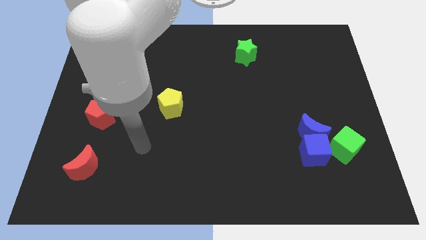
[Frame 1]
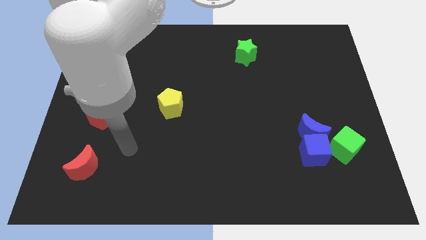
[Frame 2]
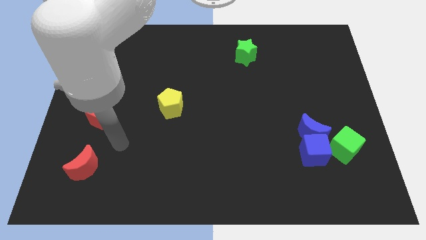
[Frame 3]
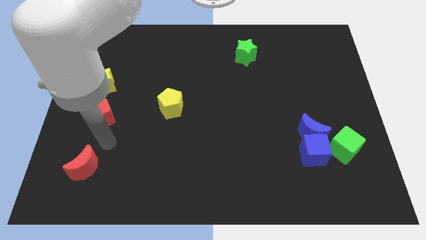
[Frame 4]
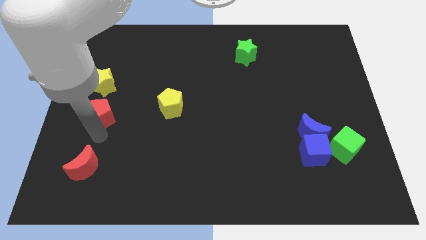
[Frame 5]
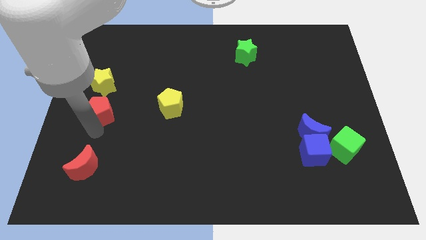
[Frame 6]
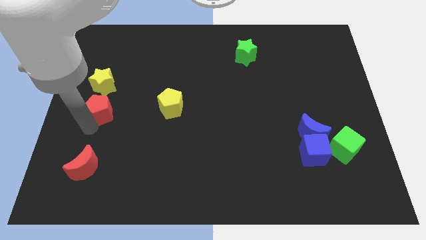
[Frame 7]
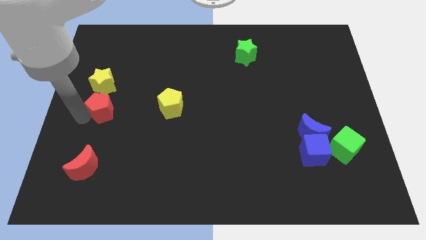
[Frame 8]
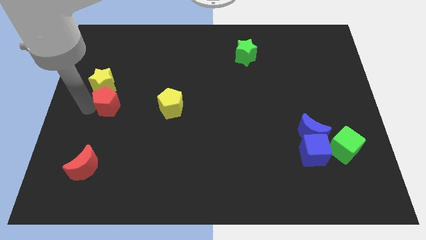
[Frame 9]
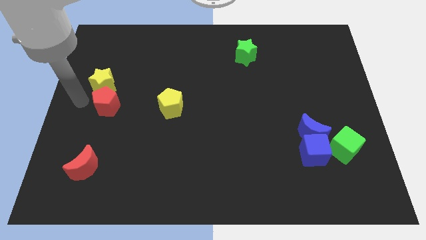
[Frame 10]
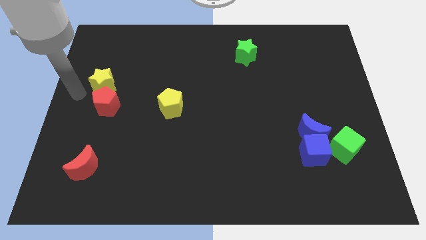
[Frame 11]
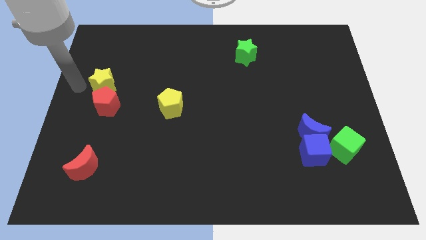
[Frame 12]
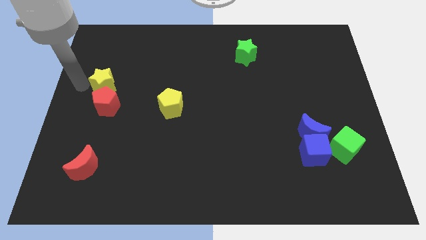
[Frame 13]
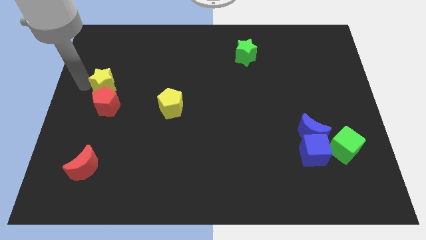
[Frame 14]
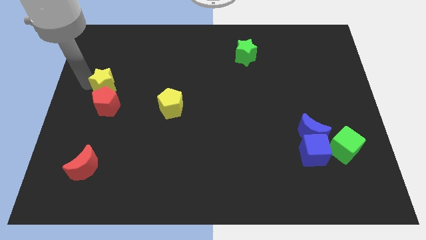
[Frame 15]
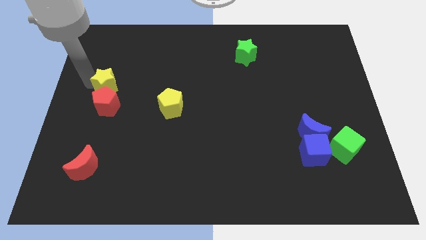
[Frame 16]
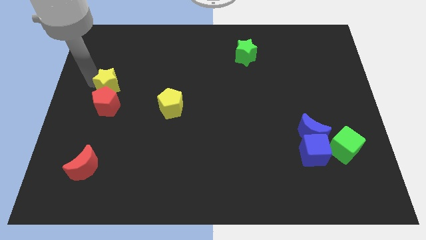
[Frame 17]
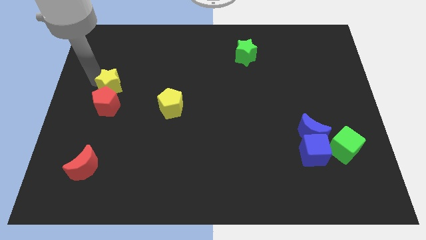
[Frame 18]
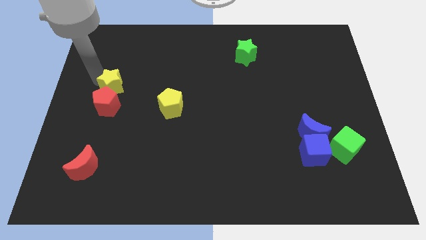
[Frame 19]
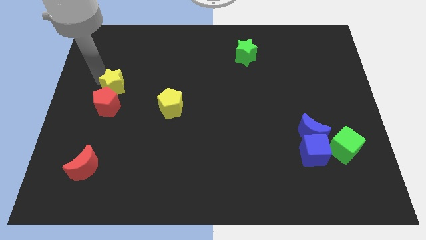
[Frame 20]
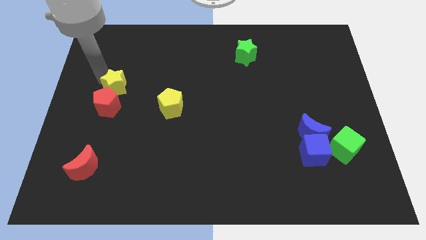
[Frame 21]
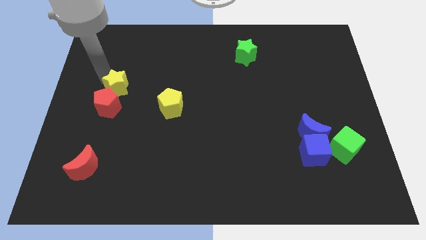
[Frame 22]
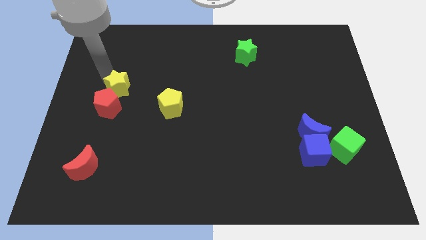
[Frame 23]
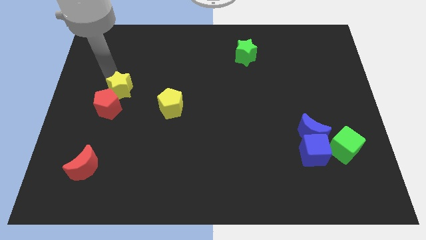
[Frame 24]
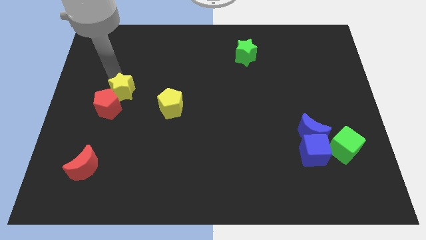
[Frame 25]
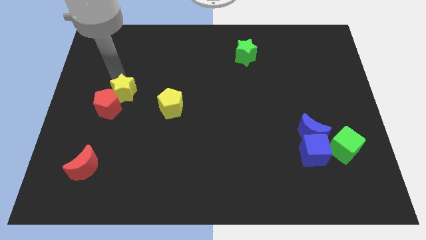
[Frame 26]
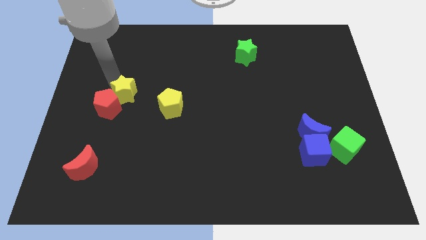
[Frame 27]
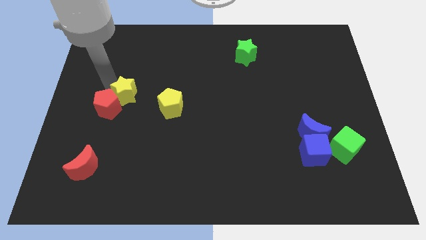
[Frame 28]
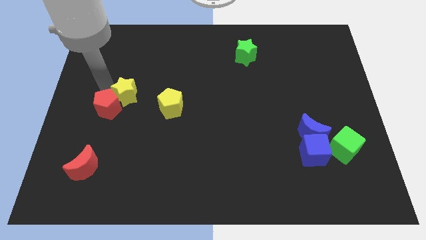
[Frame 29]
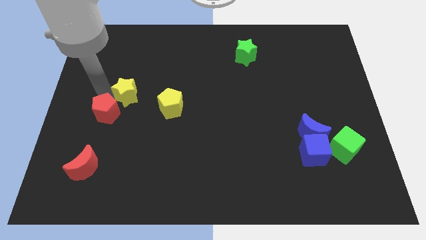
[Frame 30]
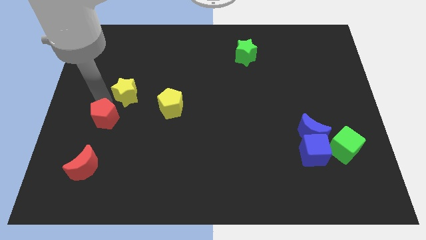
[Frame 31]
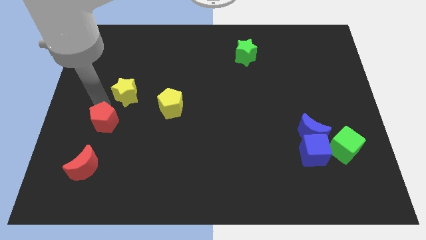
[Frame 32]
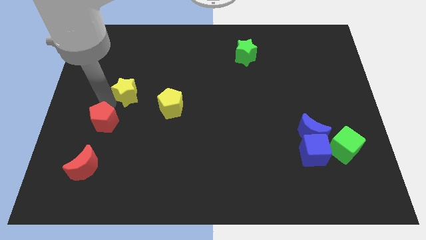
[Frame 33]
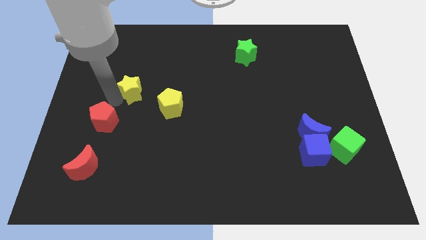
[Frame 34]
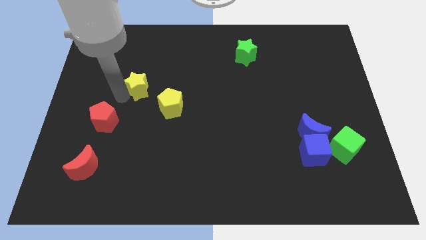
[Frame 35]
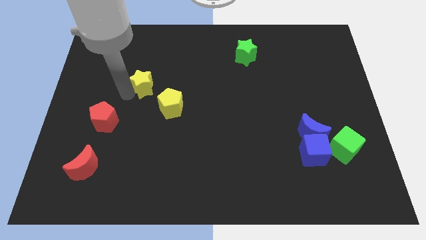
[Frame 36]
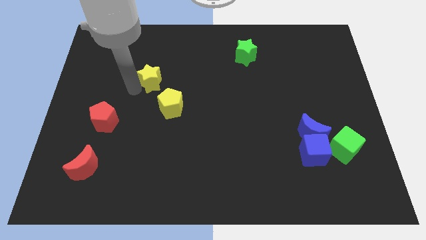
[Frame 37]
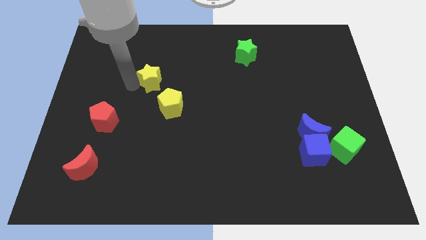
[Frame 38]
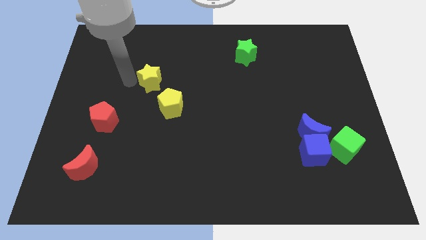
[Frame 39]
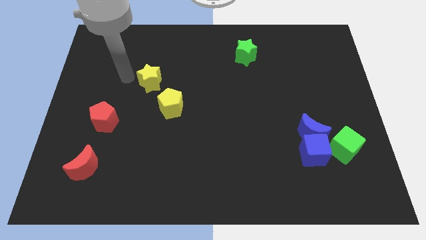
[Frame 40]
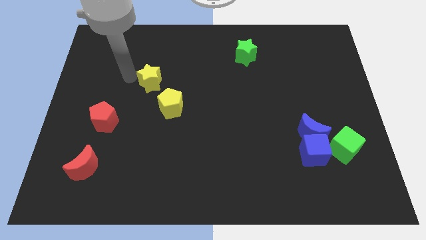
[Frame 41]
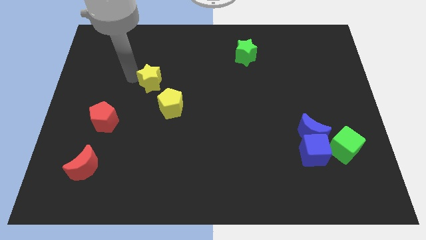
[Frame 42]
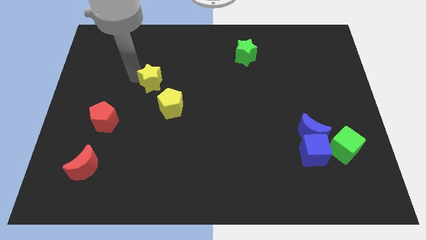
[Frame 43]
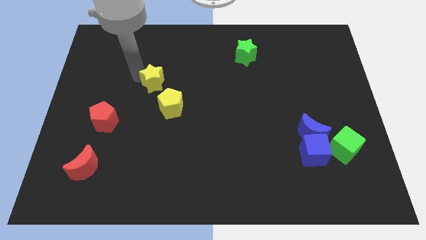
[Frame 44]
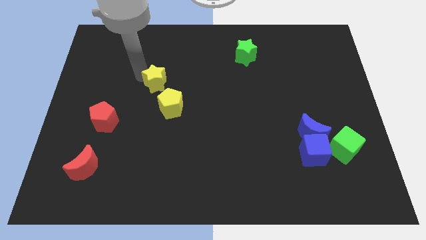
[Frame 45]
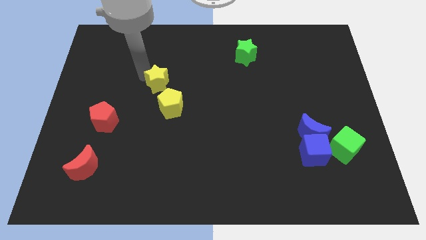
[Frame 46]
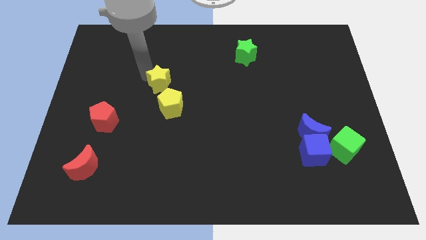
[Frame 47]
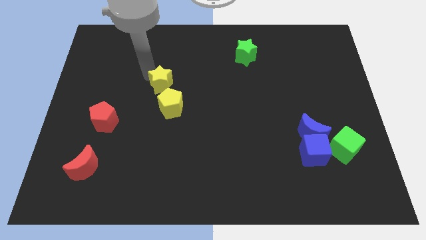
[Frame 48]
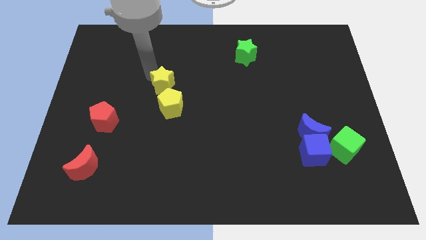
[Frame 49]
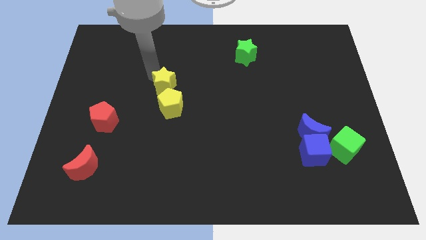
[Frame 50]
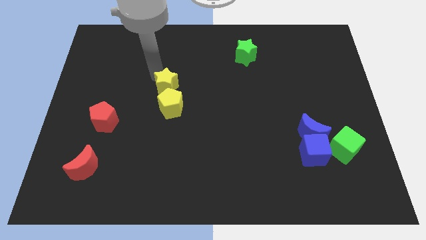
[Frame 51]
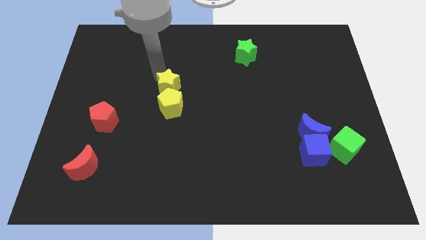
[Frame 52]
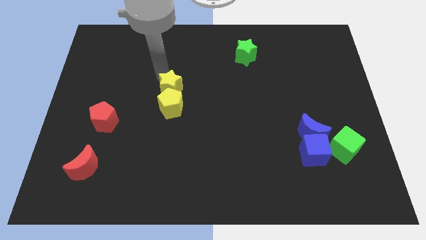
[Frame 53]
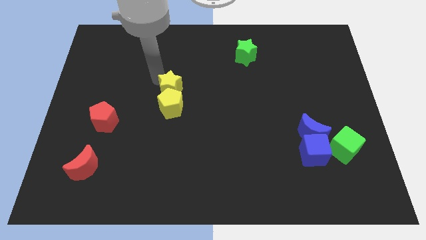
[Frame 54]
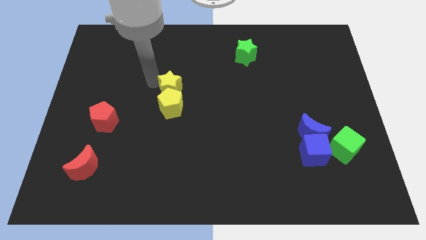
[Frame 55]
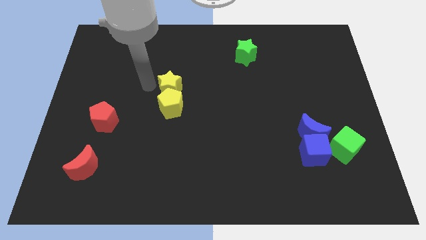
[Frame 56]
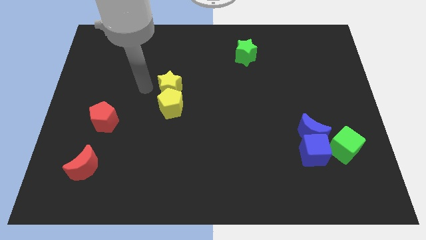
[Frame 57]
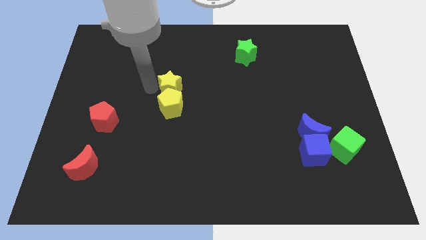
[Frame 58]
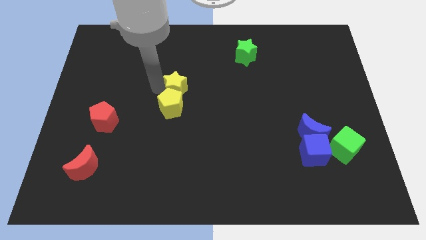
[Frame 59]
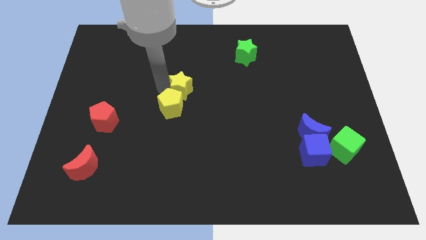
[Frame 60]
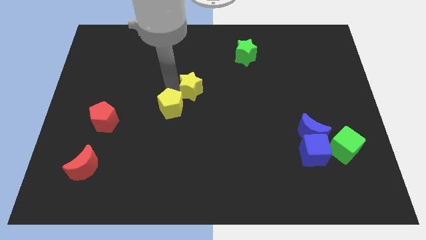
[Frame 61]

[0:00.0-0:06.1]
push the yellow star to the right

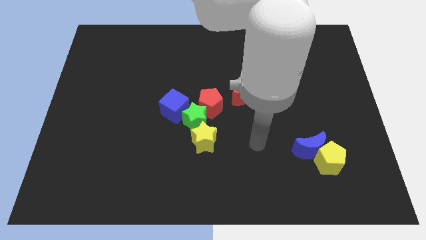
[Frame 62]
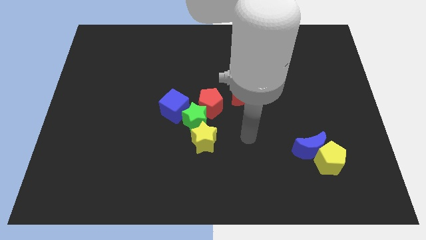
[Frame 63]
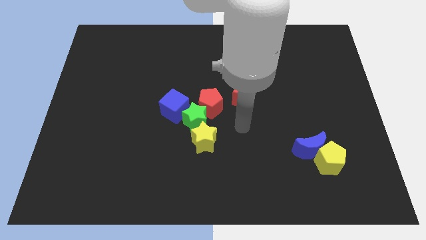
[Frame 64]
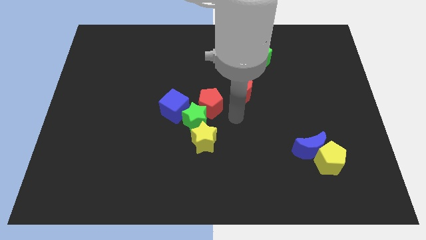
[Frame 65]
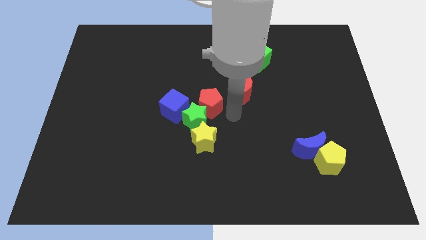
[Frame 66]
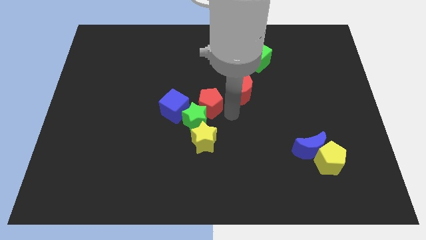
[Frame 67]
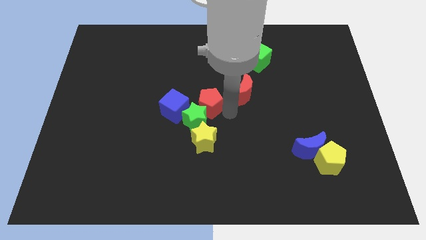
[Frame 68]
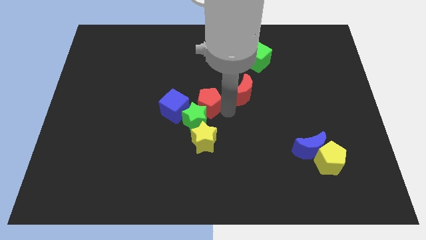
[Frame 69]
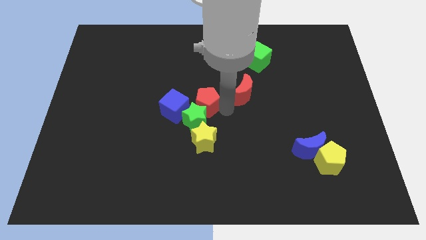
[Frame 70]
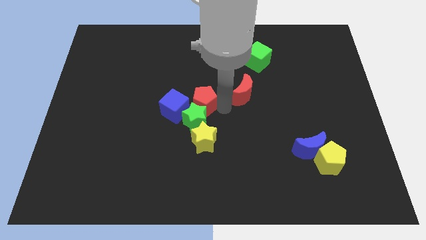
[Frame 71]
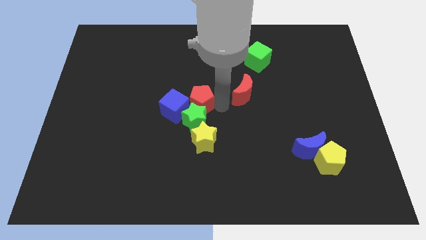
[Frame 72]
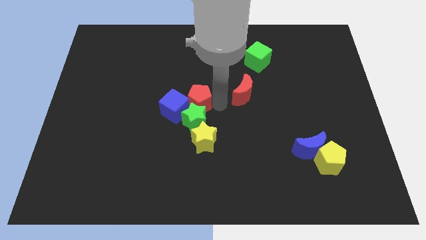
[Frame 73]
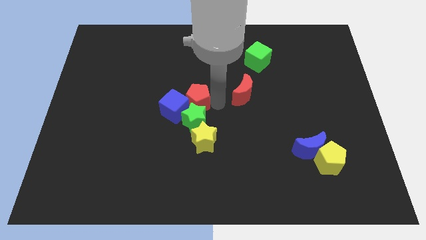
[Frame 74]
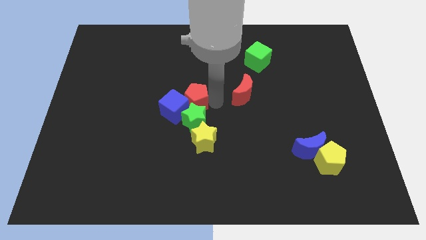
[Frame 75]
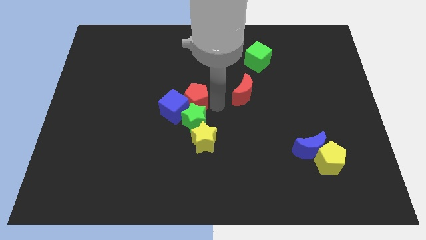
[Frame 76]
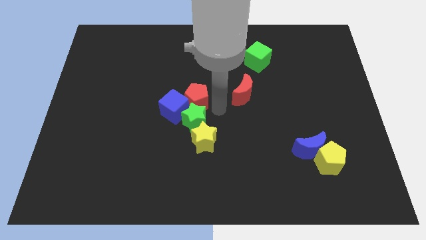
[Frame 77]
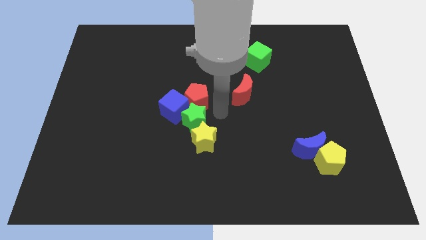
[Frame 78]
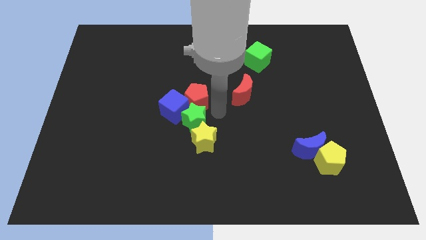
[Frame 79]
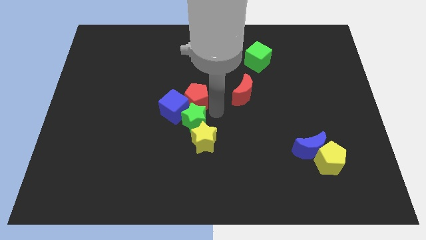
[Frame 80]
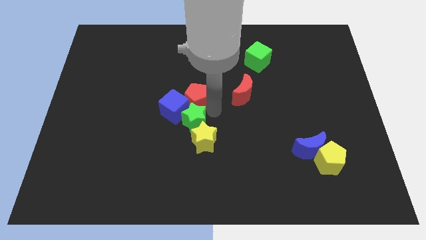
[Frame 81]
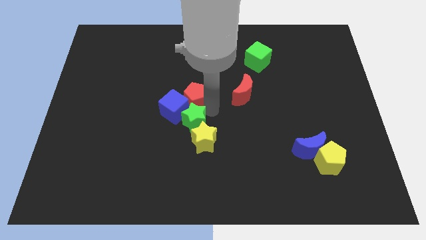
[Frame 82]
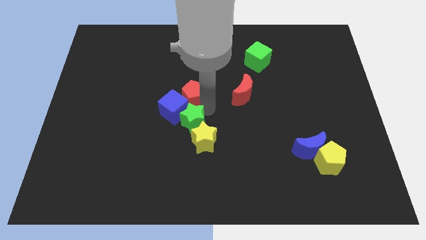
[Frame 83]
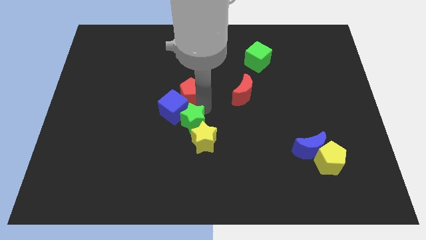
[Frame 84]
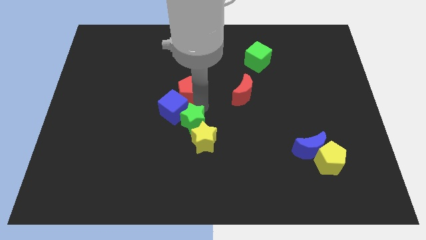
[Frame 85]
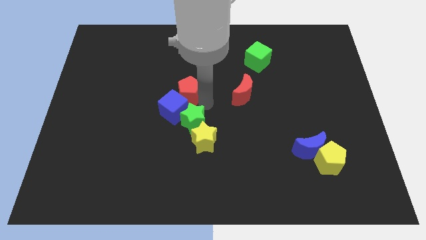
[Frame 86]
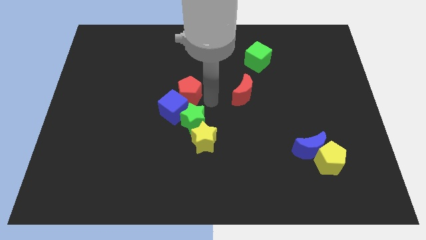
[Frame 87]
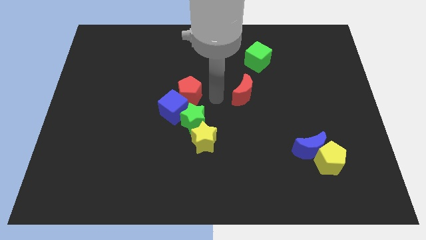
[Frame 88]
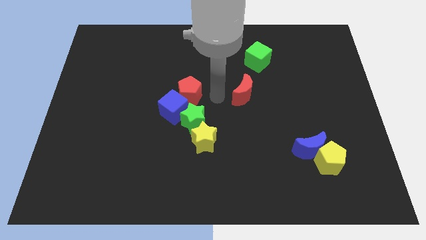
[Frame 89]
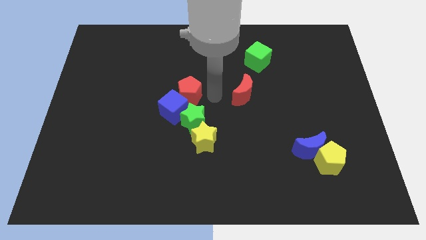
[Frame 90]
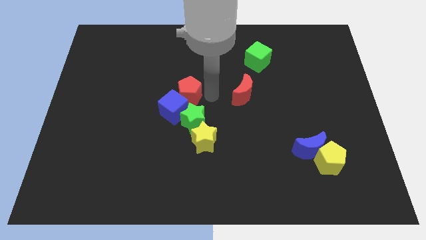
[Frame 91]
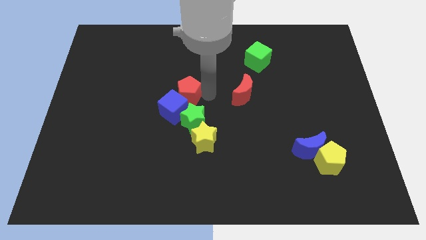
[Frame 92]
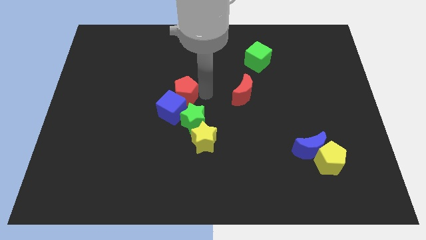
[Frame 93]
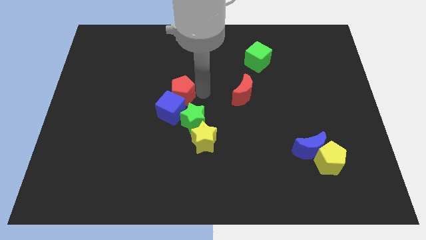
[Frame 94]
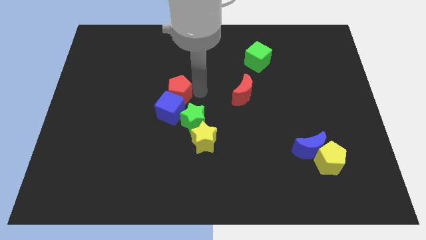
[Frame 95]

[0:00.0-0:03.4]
slide the red pentagon a bit left
